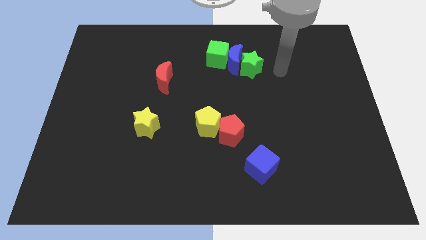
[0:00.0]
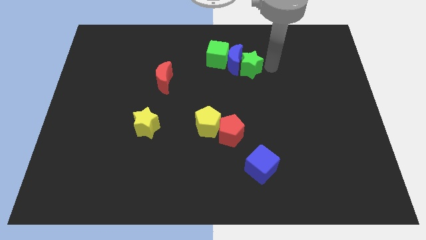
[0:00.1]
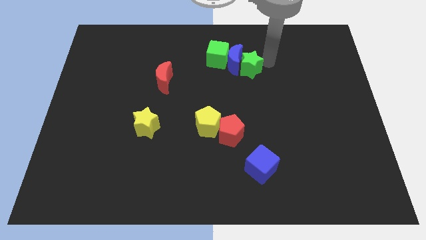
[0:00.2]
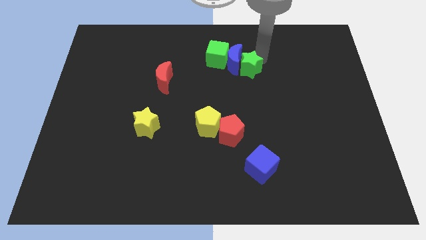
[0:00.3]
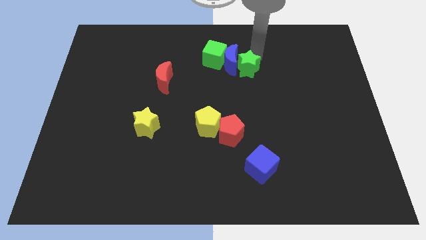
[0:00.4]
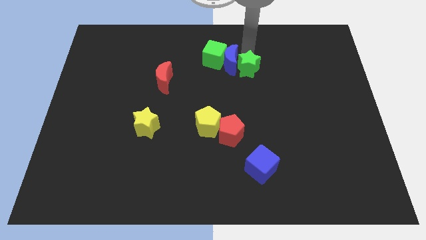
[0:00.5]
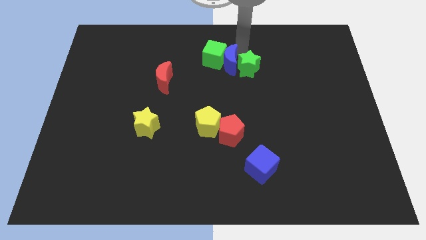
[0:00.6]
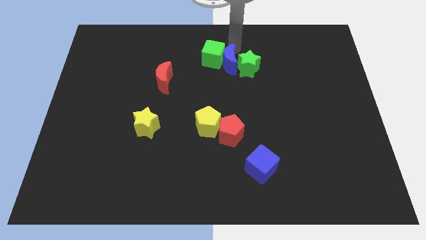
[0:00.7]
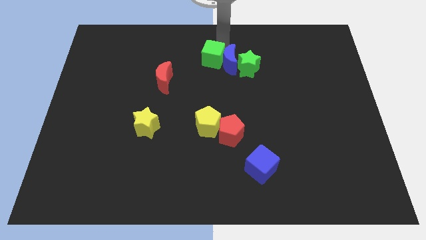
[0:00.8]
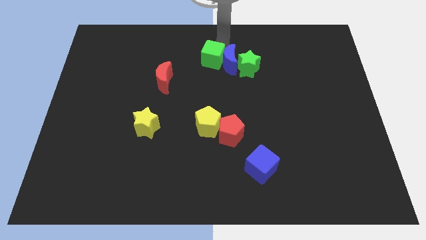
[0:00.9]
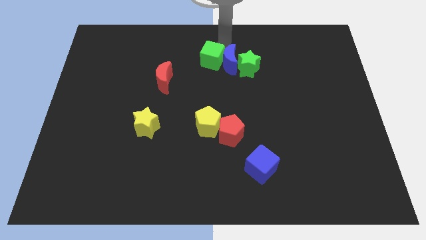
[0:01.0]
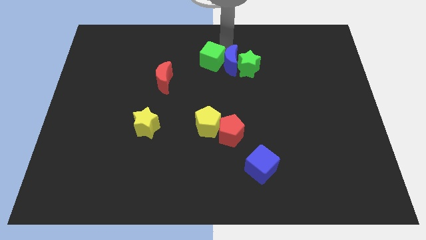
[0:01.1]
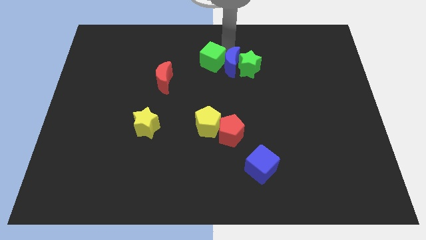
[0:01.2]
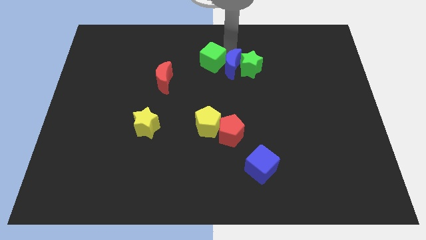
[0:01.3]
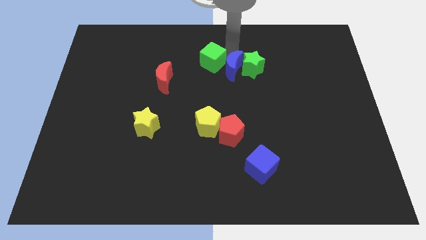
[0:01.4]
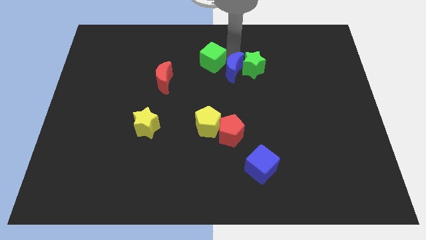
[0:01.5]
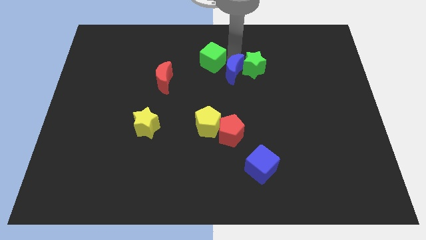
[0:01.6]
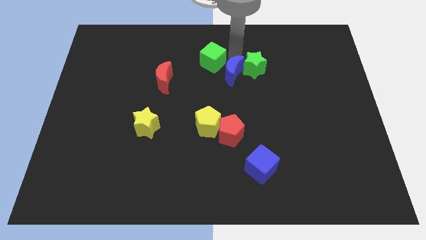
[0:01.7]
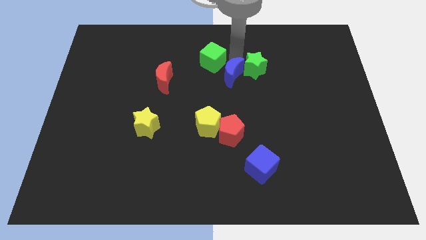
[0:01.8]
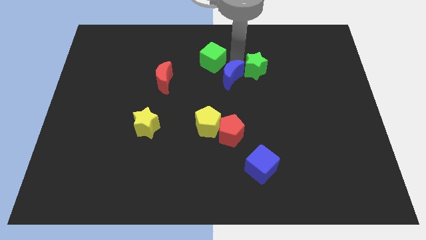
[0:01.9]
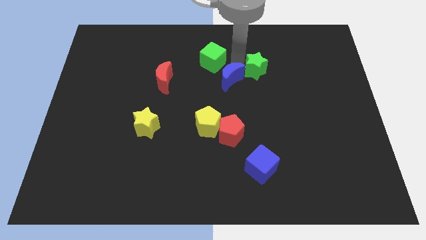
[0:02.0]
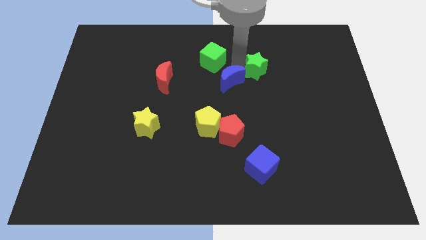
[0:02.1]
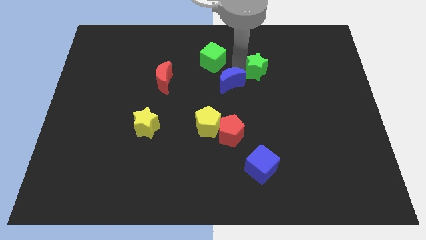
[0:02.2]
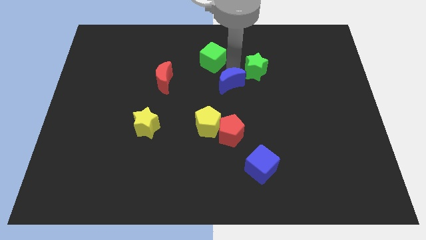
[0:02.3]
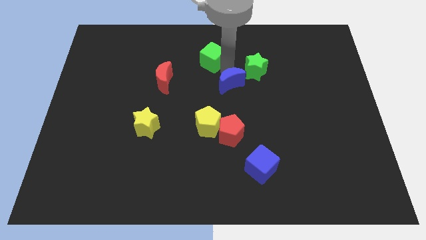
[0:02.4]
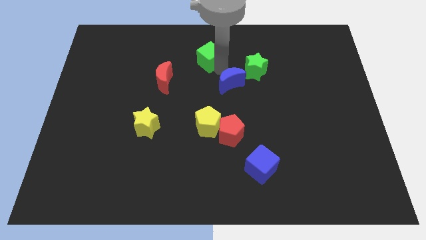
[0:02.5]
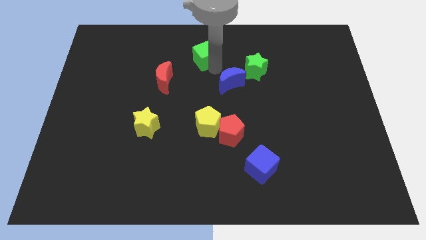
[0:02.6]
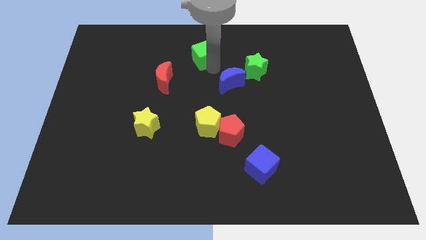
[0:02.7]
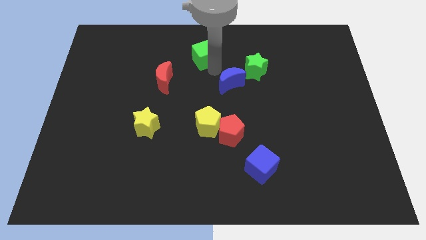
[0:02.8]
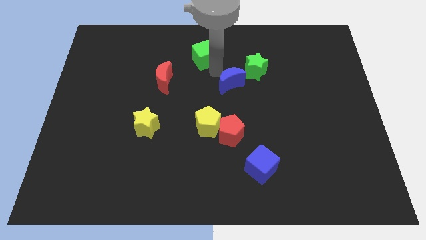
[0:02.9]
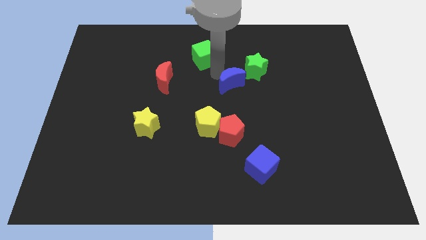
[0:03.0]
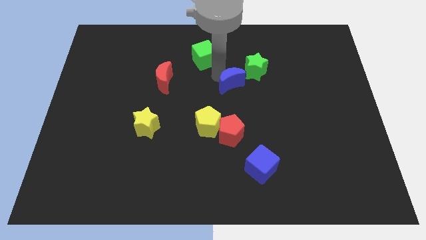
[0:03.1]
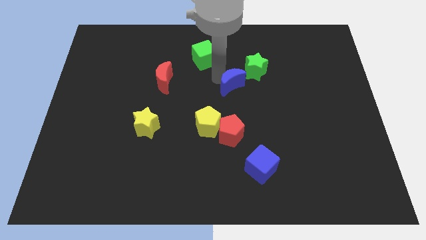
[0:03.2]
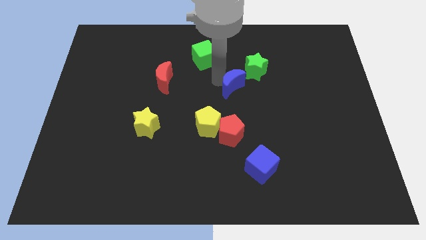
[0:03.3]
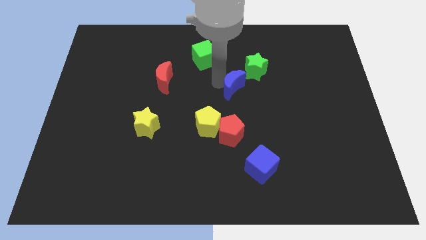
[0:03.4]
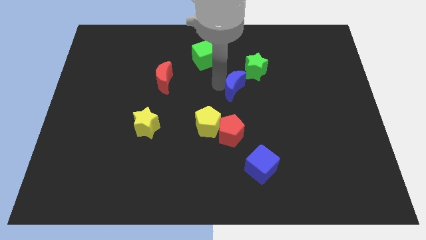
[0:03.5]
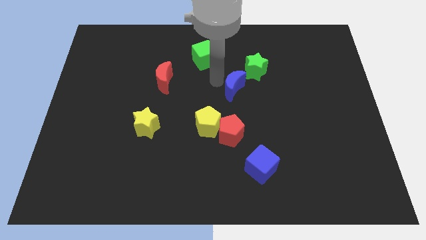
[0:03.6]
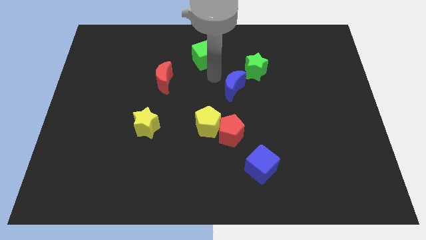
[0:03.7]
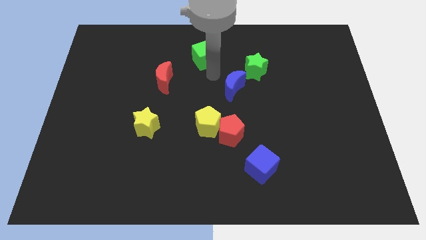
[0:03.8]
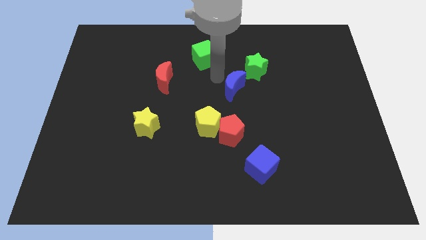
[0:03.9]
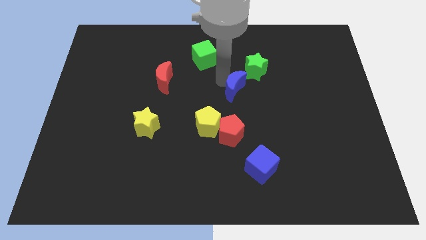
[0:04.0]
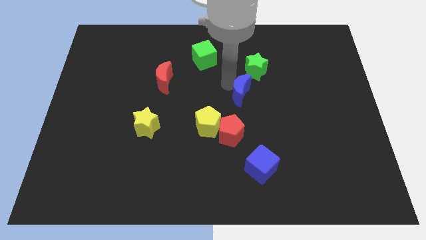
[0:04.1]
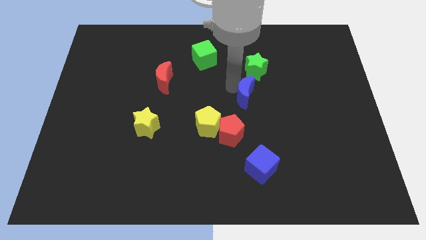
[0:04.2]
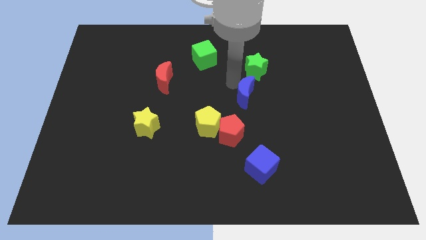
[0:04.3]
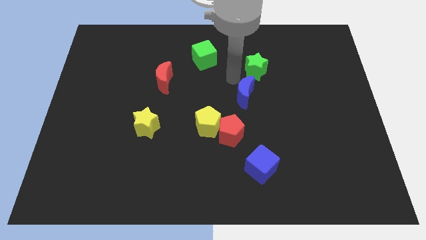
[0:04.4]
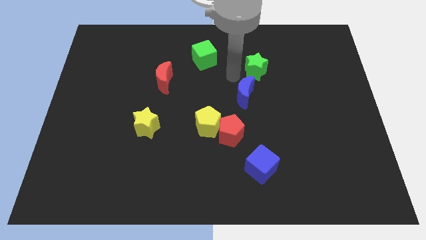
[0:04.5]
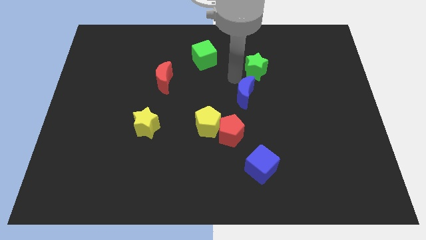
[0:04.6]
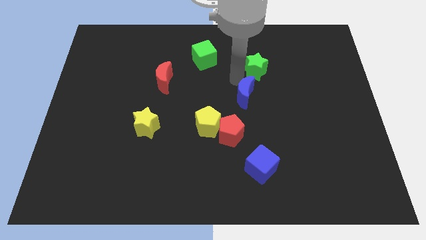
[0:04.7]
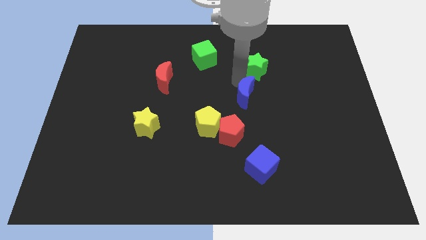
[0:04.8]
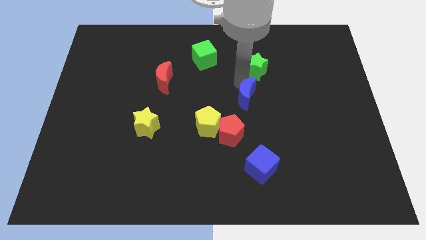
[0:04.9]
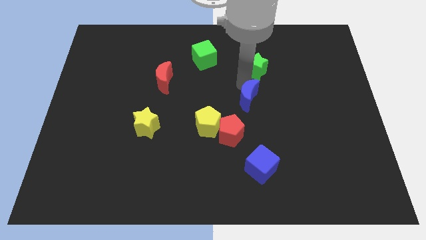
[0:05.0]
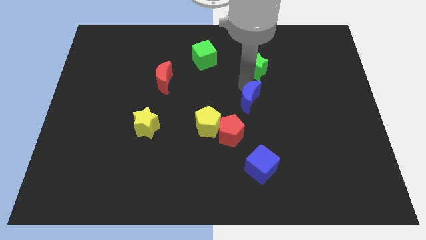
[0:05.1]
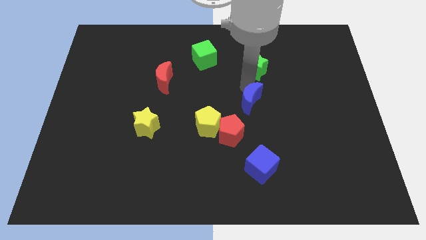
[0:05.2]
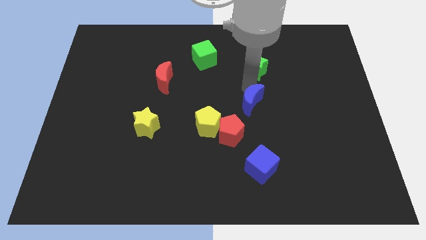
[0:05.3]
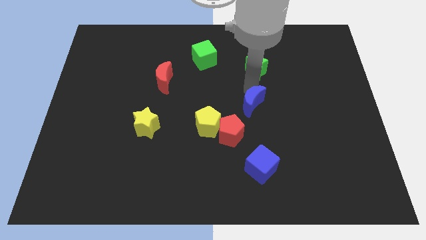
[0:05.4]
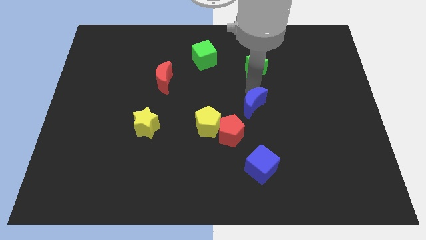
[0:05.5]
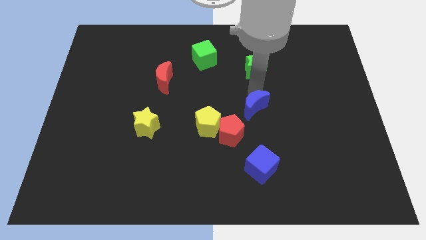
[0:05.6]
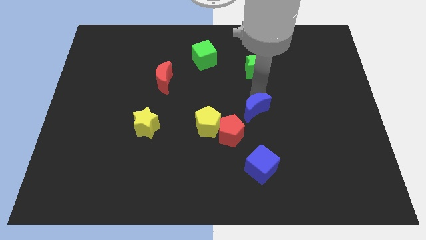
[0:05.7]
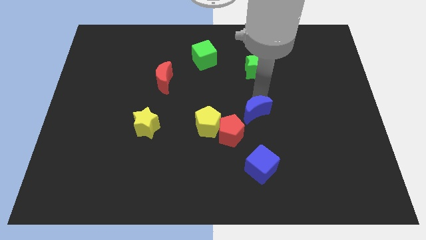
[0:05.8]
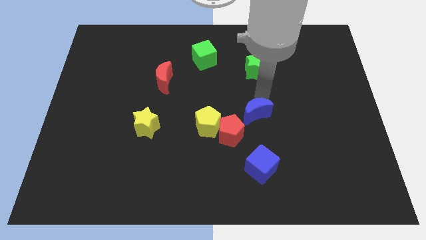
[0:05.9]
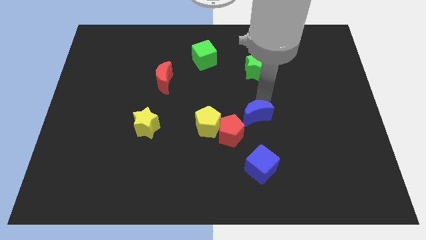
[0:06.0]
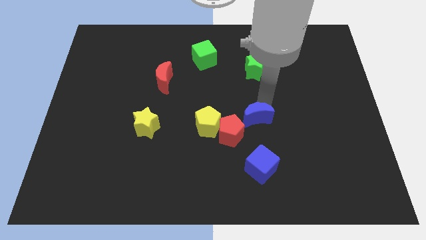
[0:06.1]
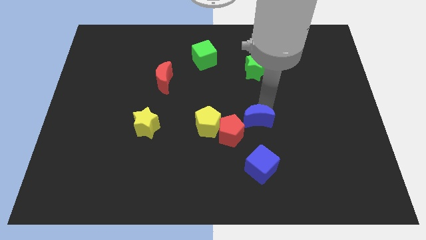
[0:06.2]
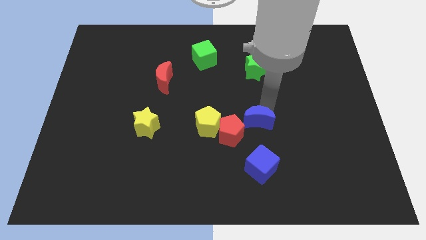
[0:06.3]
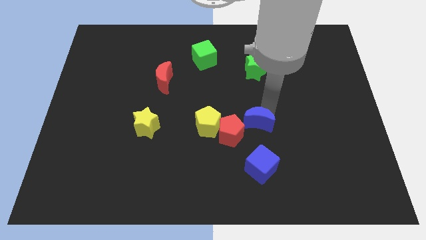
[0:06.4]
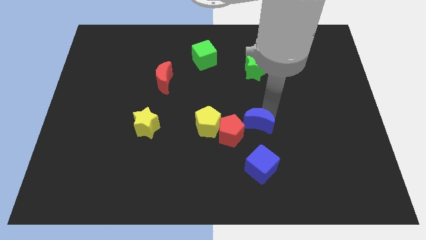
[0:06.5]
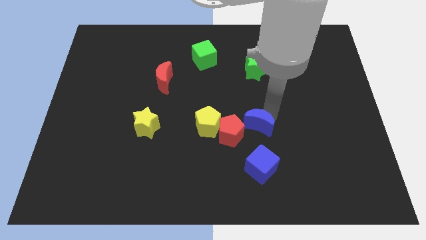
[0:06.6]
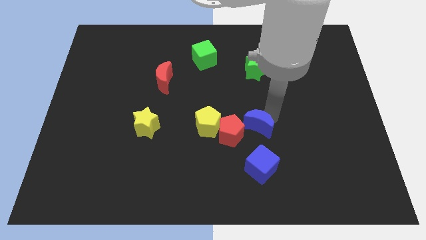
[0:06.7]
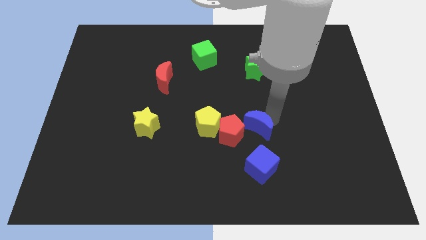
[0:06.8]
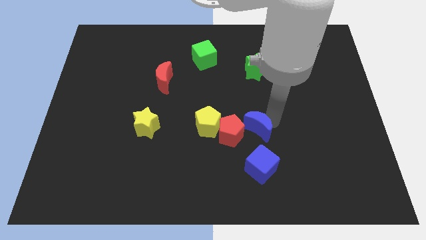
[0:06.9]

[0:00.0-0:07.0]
push the blue moon downwards

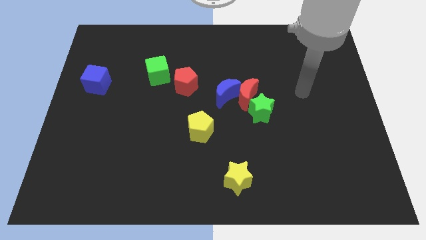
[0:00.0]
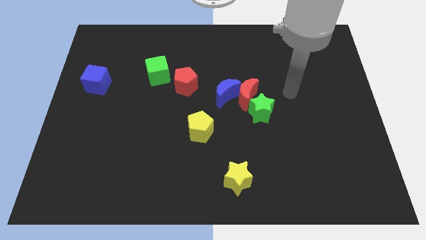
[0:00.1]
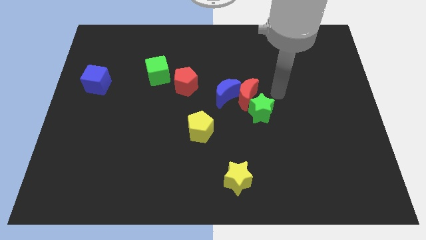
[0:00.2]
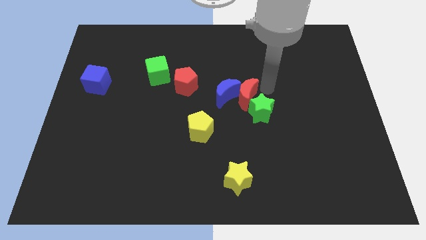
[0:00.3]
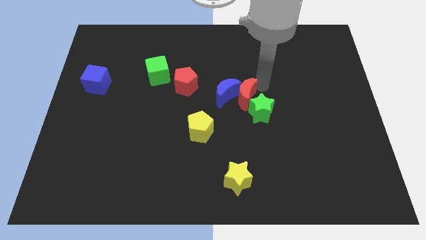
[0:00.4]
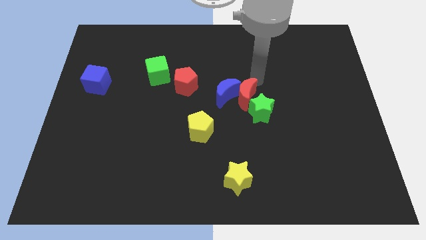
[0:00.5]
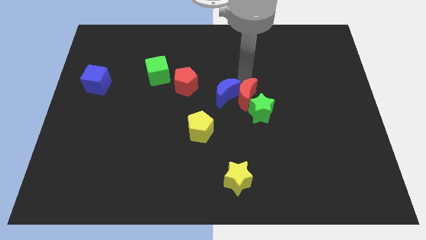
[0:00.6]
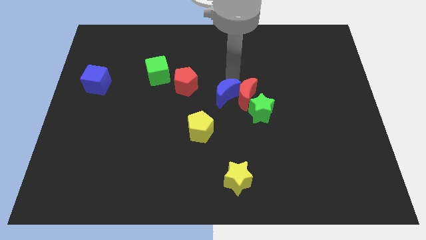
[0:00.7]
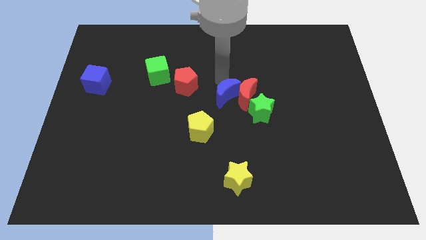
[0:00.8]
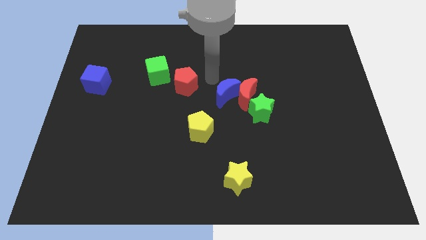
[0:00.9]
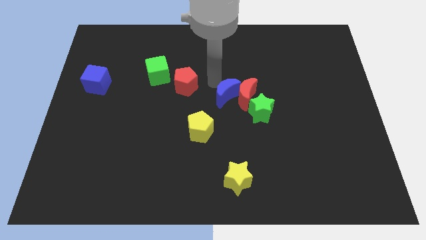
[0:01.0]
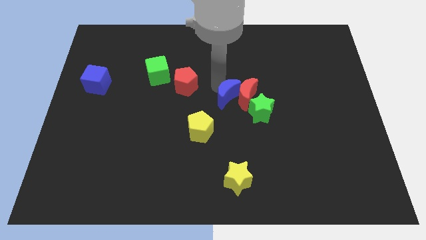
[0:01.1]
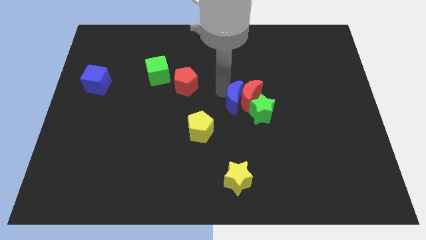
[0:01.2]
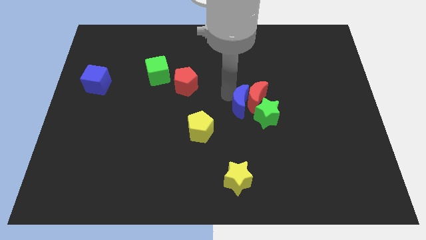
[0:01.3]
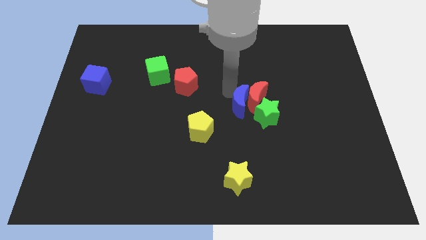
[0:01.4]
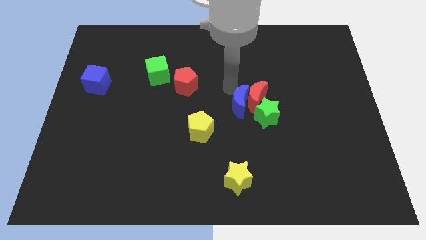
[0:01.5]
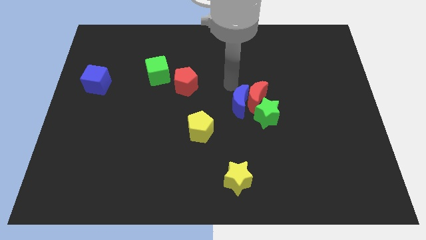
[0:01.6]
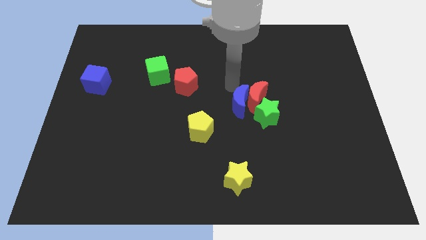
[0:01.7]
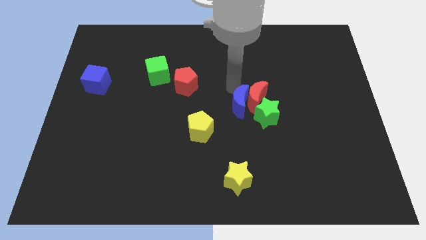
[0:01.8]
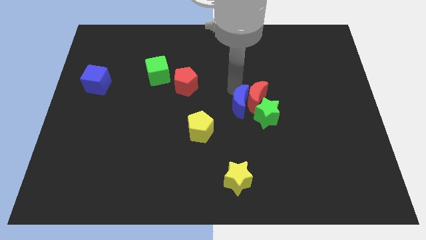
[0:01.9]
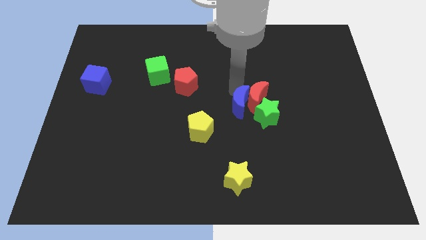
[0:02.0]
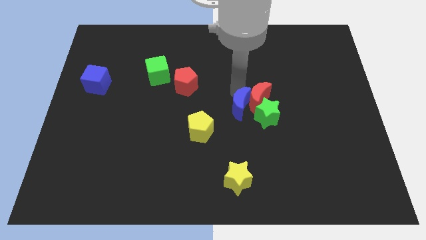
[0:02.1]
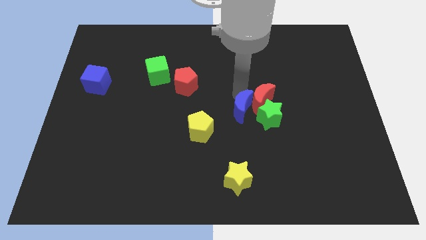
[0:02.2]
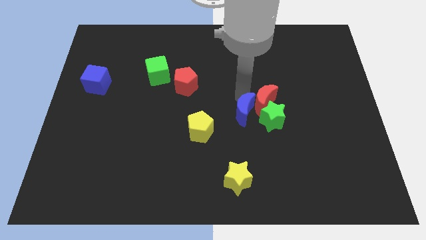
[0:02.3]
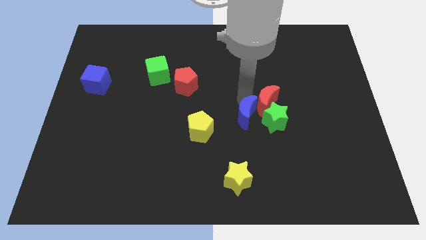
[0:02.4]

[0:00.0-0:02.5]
slide the blue moon a little bit downwards and then right
